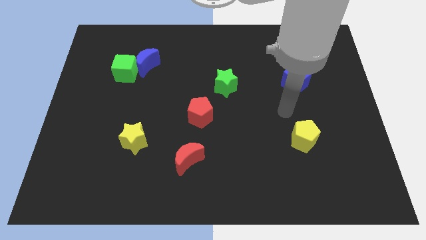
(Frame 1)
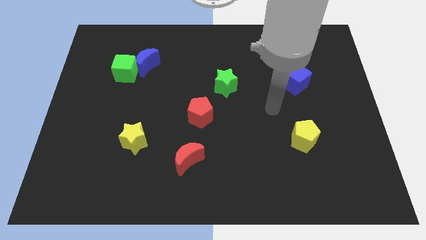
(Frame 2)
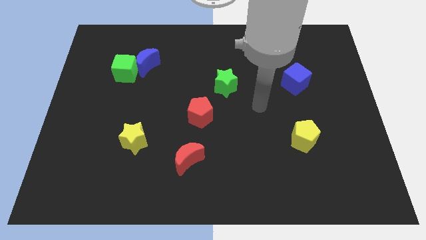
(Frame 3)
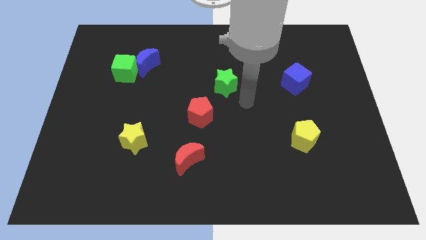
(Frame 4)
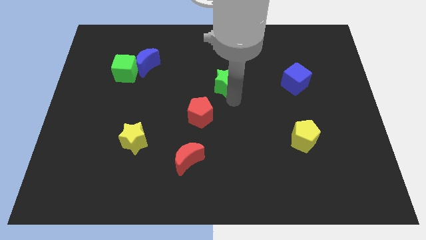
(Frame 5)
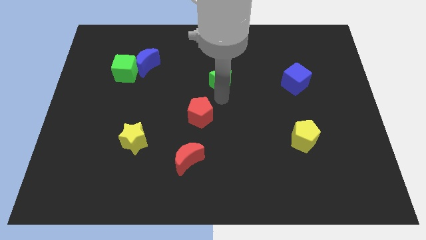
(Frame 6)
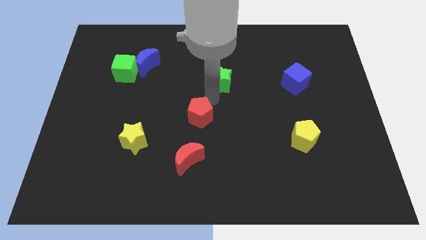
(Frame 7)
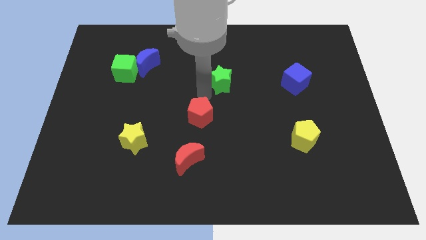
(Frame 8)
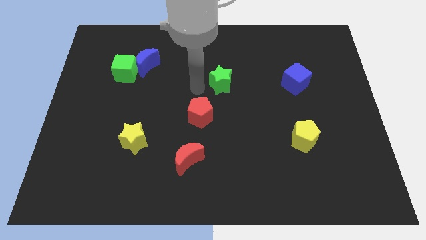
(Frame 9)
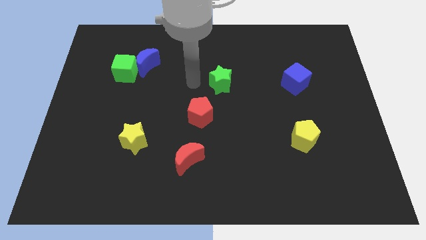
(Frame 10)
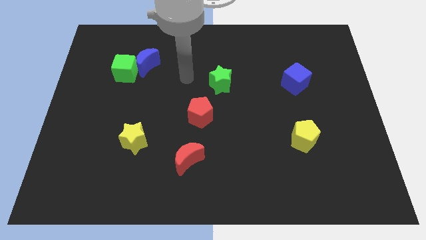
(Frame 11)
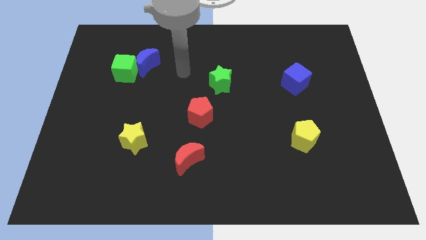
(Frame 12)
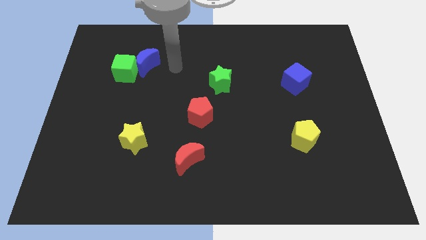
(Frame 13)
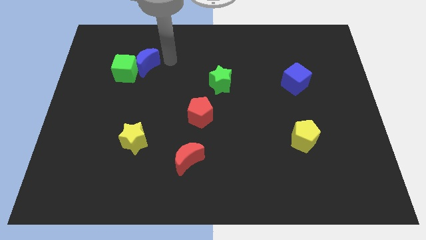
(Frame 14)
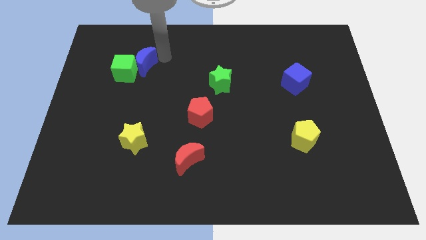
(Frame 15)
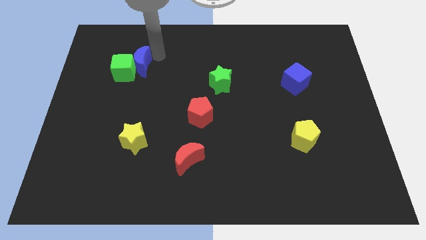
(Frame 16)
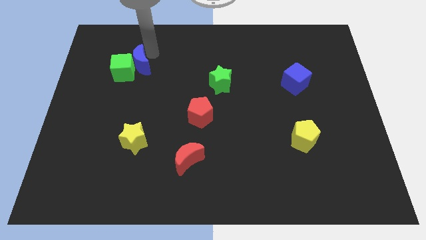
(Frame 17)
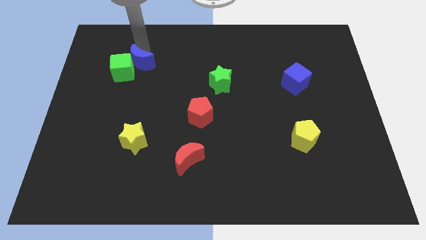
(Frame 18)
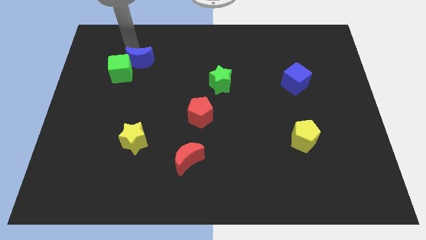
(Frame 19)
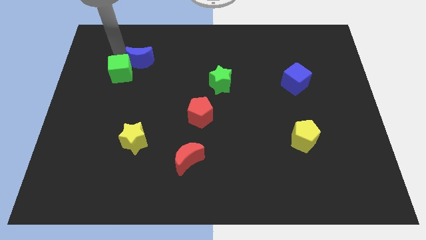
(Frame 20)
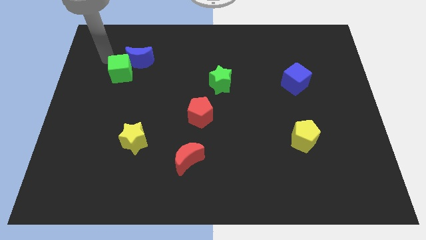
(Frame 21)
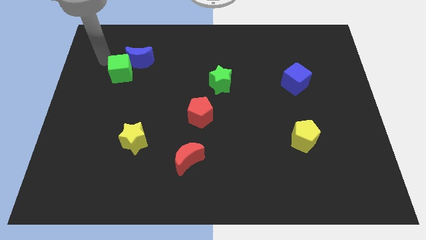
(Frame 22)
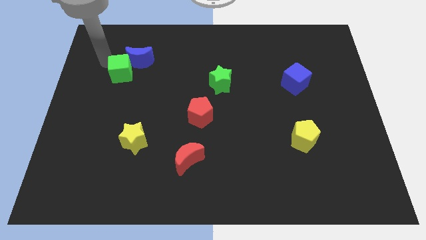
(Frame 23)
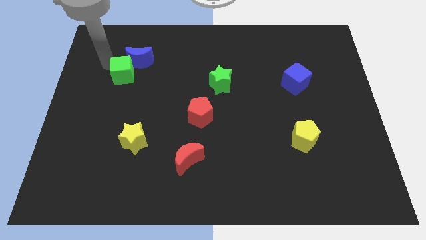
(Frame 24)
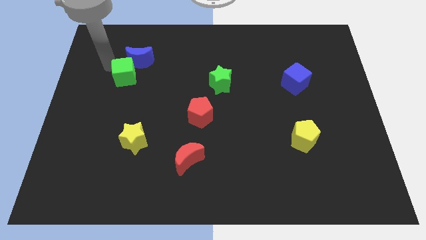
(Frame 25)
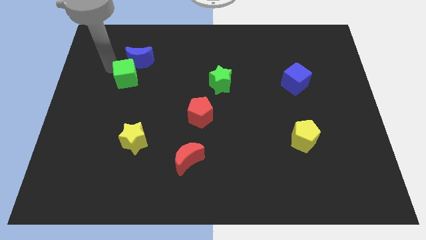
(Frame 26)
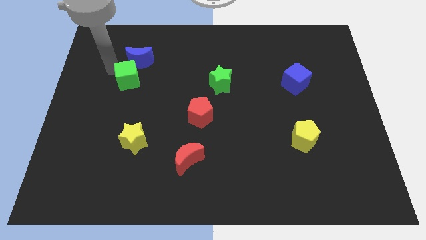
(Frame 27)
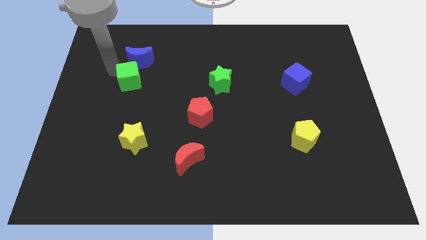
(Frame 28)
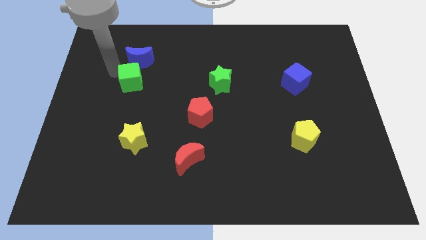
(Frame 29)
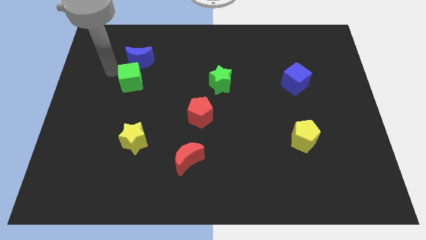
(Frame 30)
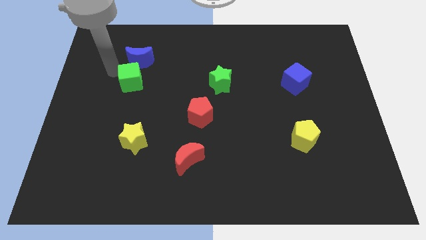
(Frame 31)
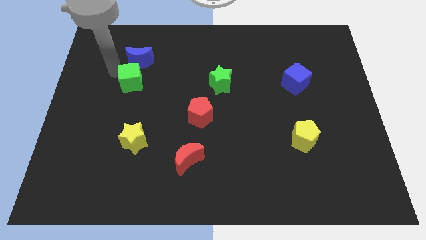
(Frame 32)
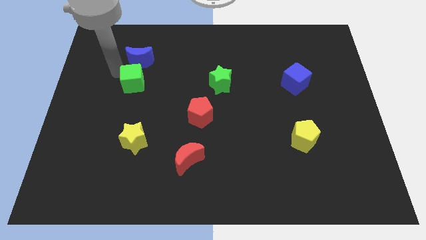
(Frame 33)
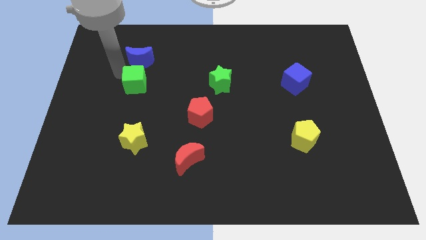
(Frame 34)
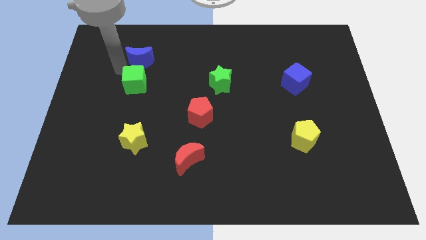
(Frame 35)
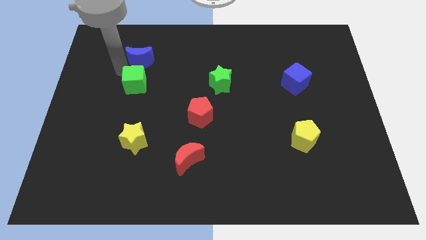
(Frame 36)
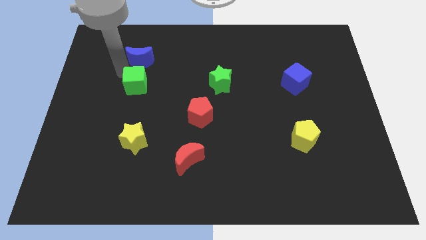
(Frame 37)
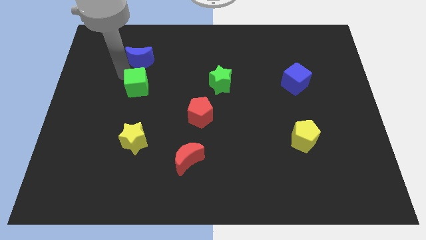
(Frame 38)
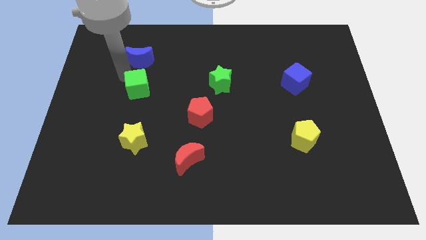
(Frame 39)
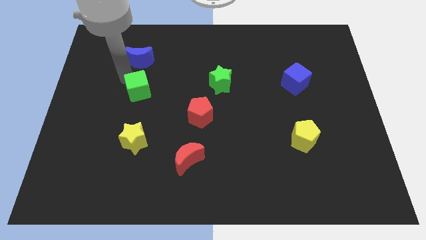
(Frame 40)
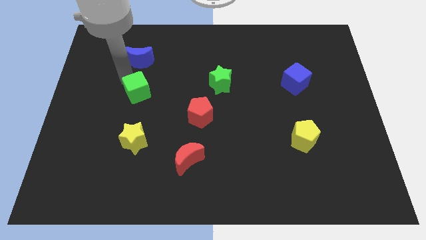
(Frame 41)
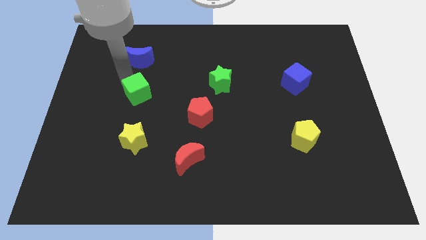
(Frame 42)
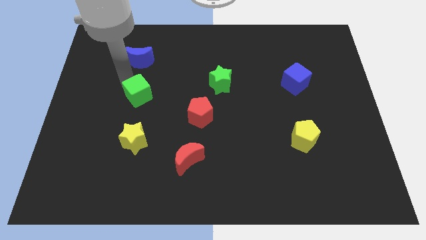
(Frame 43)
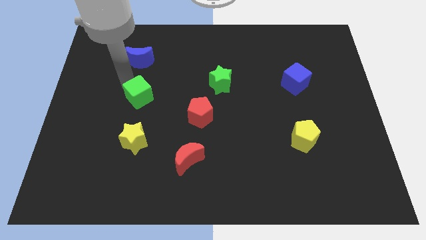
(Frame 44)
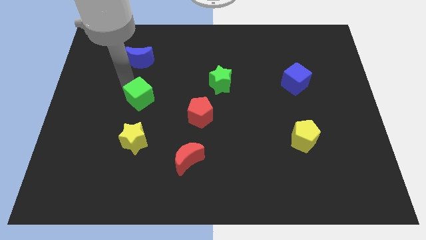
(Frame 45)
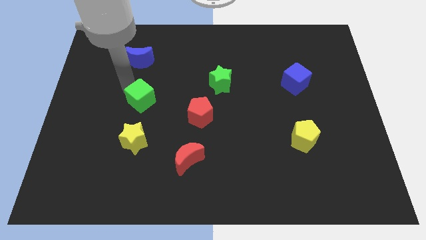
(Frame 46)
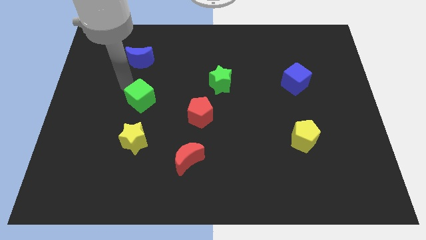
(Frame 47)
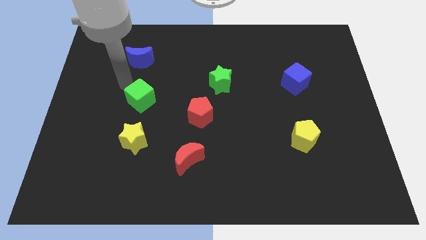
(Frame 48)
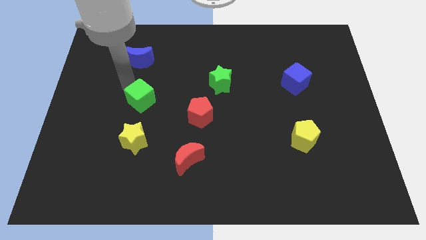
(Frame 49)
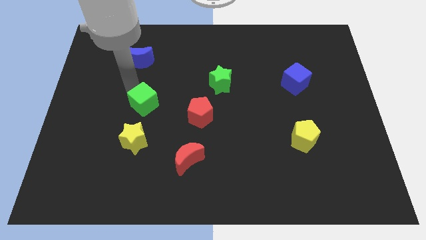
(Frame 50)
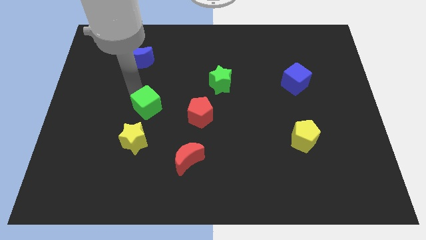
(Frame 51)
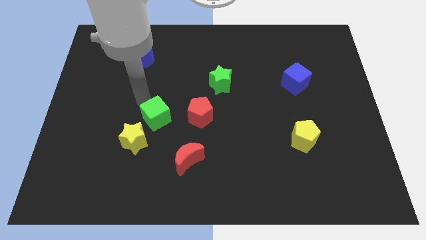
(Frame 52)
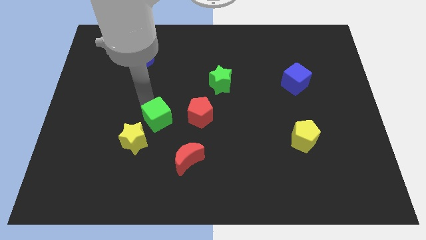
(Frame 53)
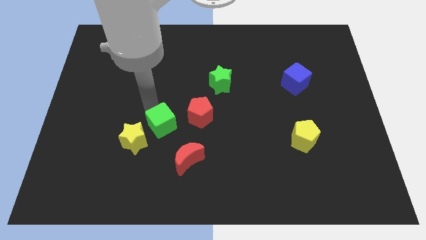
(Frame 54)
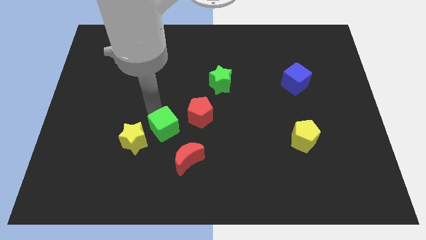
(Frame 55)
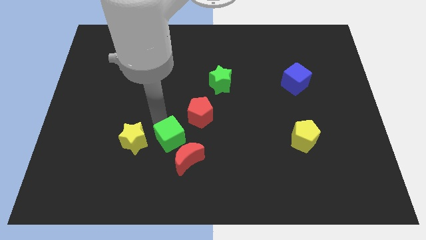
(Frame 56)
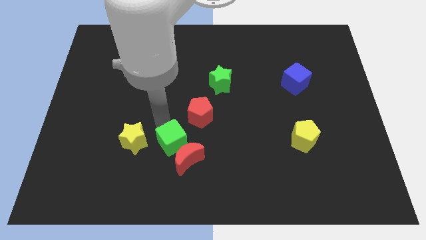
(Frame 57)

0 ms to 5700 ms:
push the green cube towards the red moon

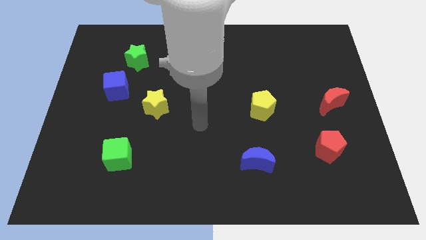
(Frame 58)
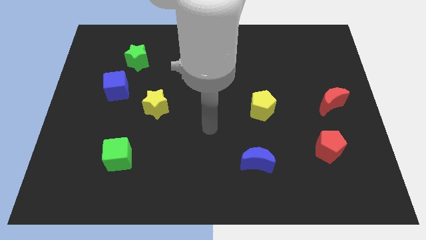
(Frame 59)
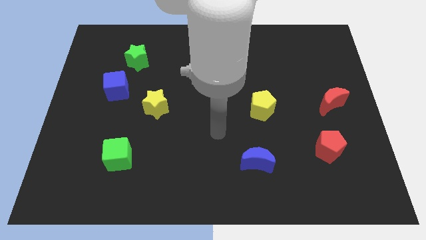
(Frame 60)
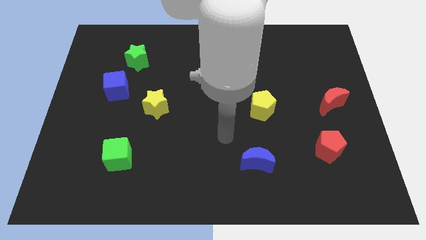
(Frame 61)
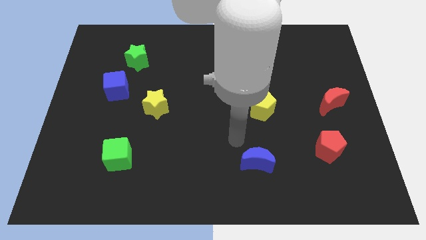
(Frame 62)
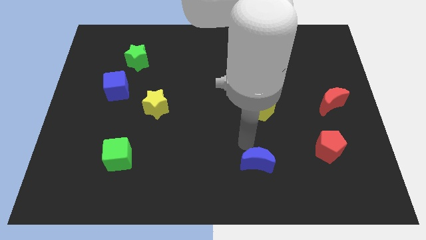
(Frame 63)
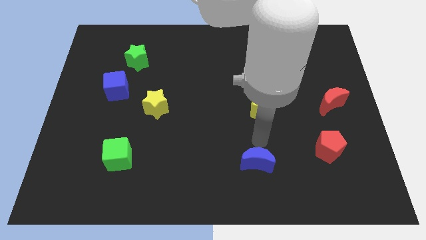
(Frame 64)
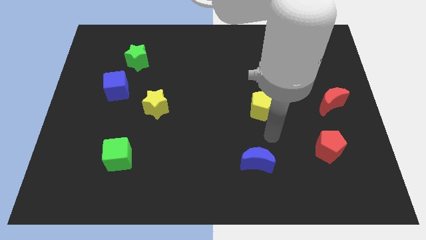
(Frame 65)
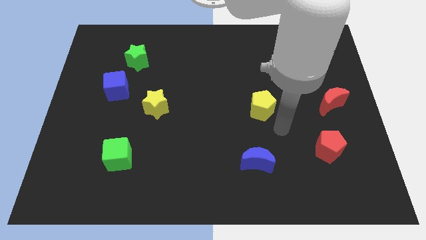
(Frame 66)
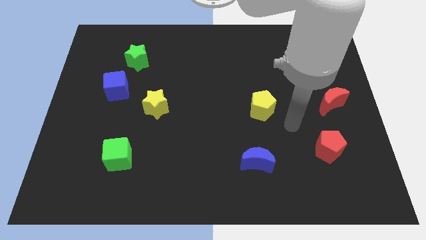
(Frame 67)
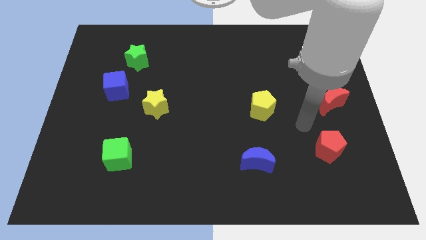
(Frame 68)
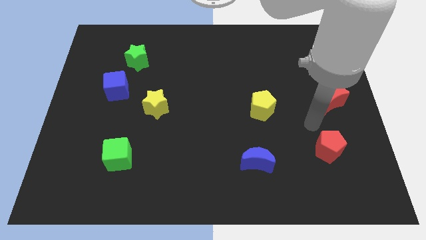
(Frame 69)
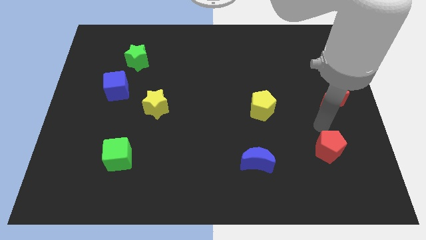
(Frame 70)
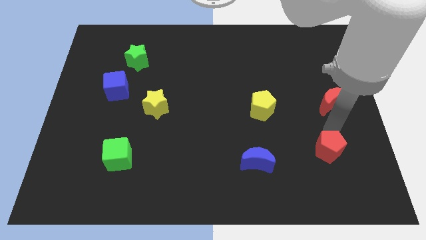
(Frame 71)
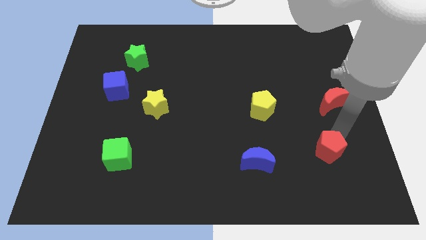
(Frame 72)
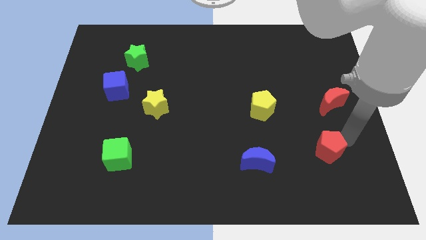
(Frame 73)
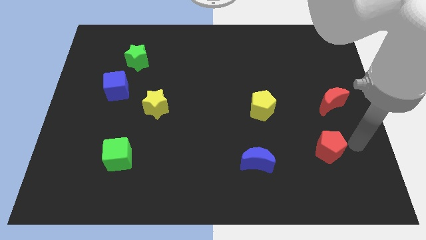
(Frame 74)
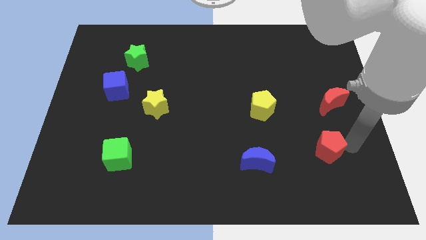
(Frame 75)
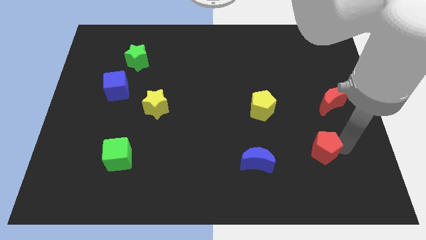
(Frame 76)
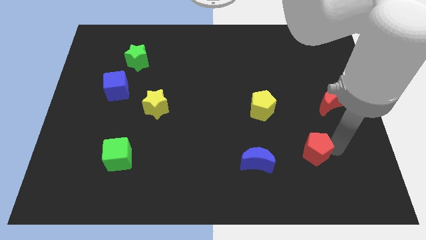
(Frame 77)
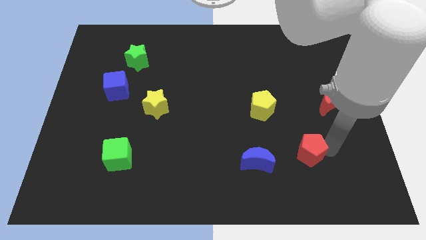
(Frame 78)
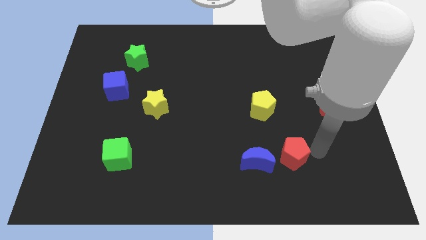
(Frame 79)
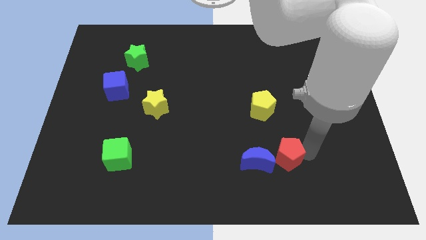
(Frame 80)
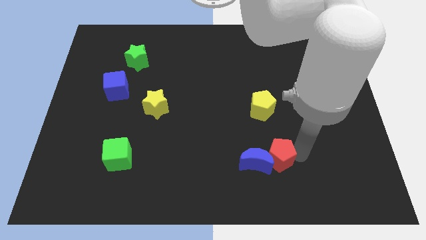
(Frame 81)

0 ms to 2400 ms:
move the red pentagon to the blue moon
